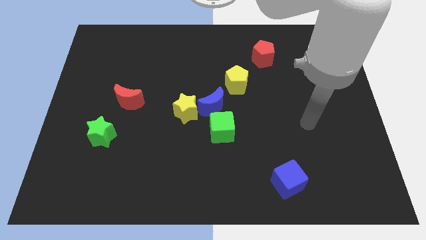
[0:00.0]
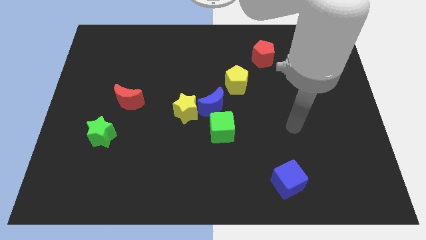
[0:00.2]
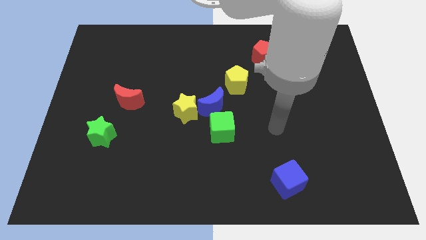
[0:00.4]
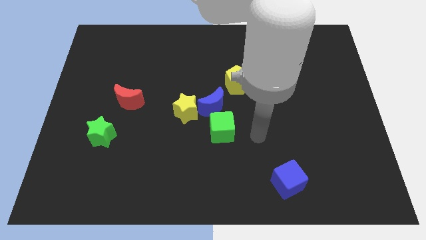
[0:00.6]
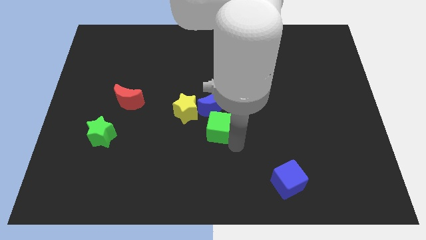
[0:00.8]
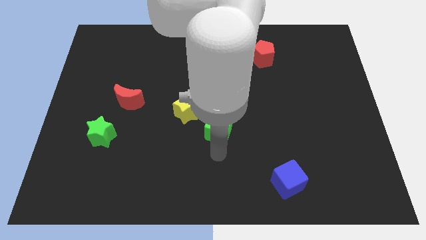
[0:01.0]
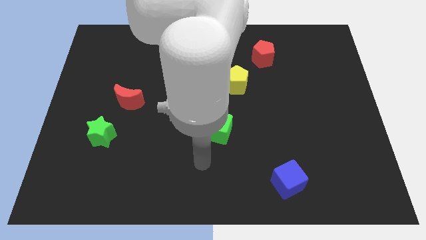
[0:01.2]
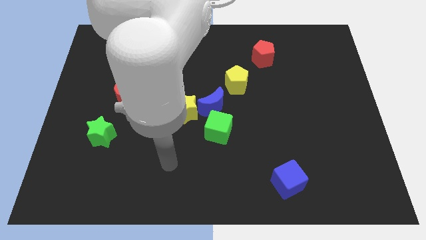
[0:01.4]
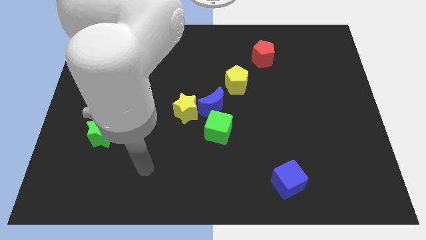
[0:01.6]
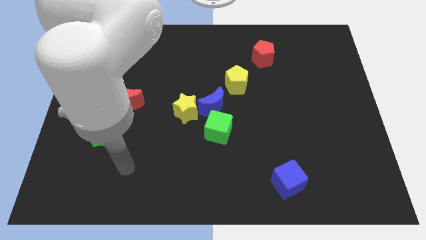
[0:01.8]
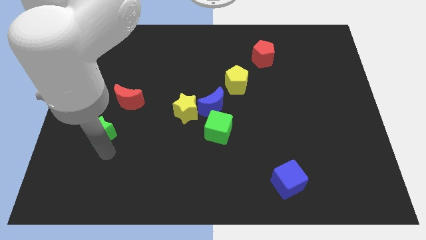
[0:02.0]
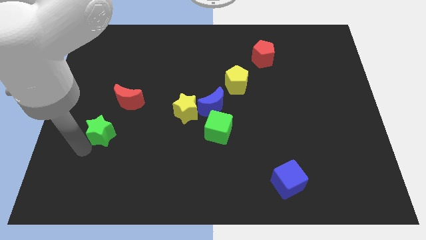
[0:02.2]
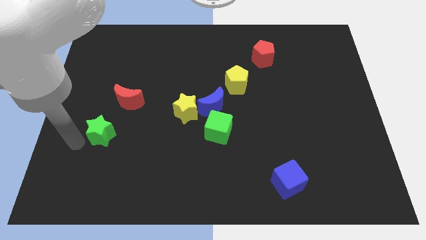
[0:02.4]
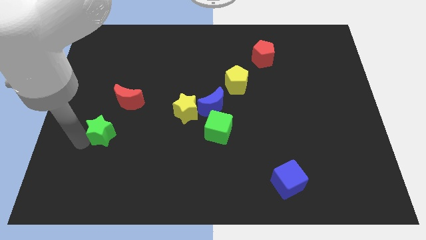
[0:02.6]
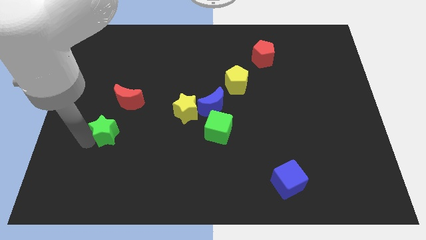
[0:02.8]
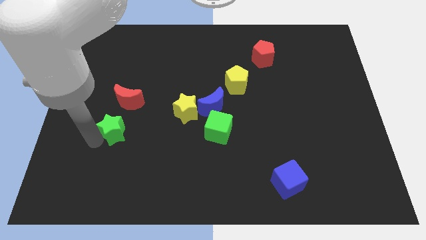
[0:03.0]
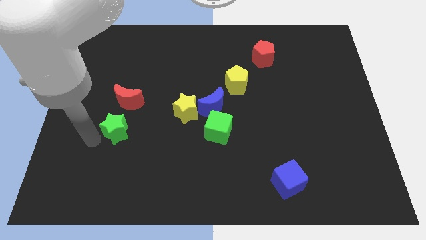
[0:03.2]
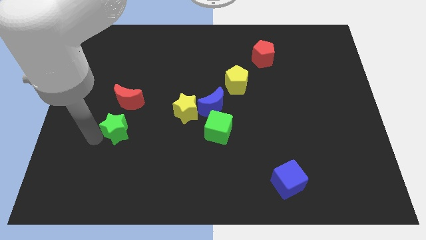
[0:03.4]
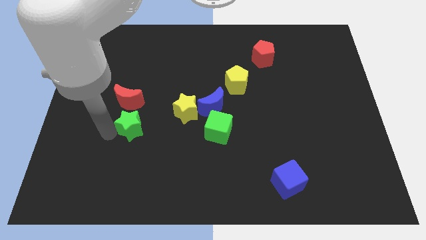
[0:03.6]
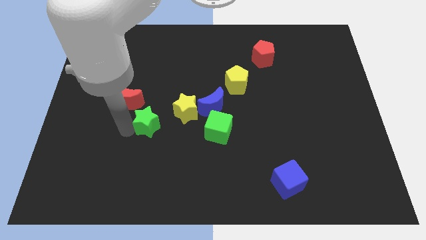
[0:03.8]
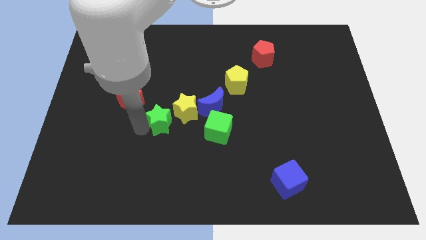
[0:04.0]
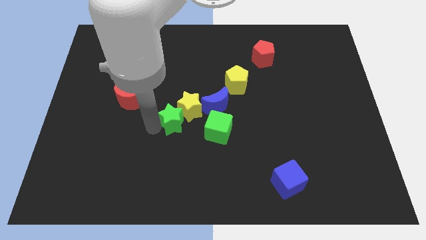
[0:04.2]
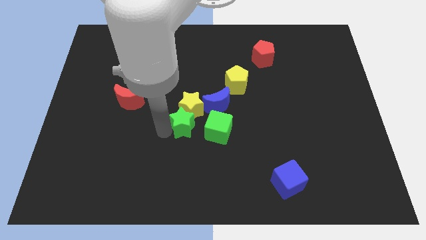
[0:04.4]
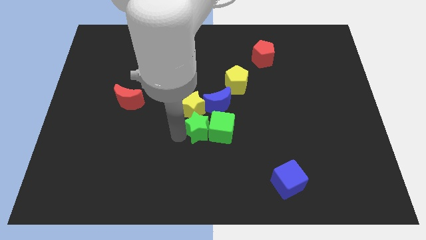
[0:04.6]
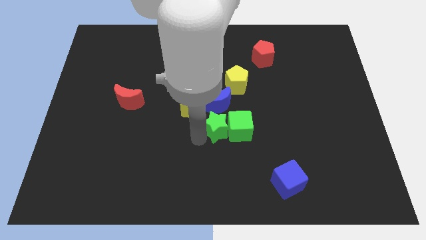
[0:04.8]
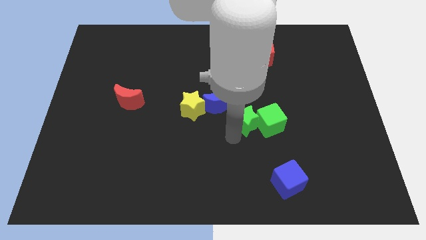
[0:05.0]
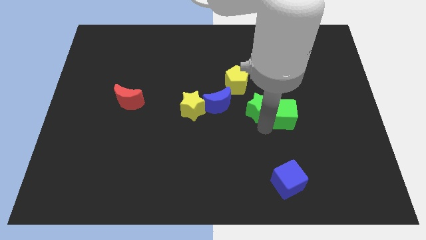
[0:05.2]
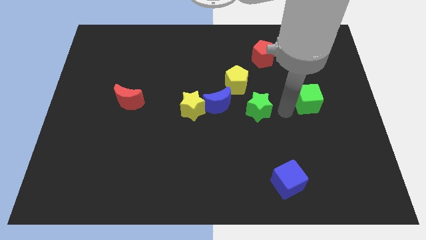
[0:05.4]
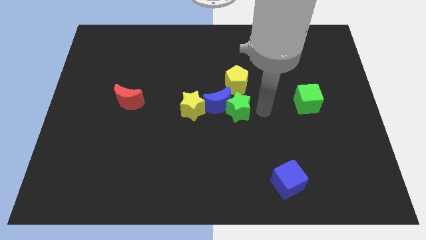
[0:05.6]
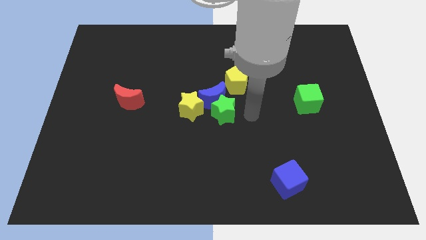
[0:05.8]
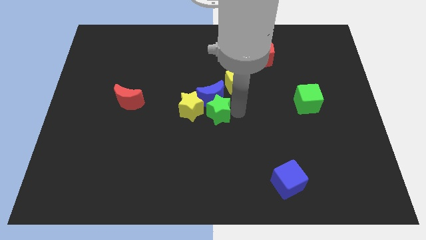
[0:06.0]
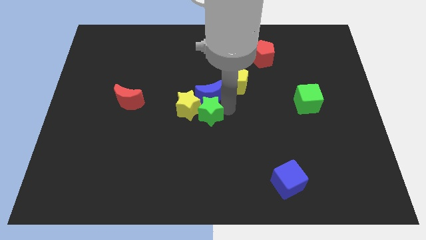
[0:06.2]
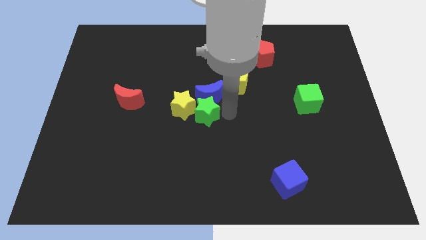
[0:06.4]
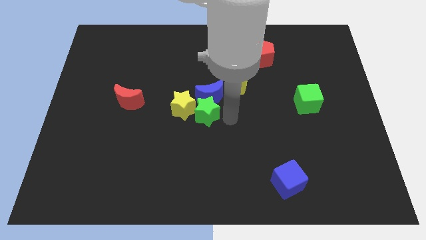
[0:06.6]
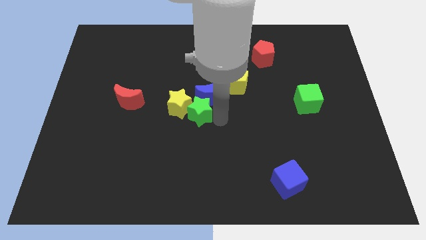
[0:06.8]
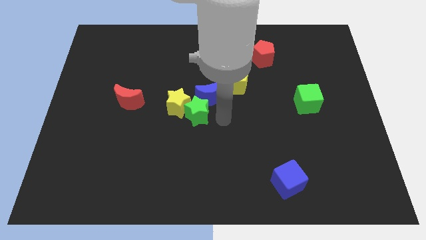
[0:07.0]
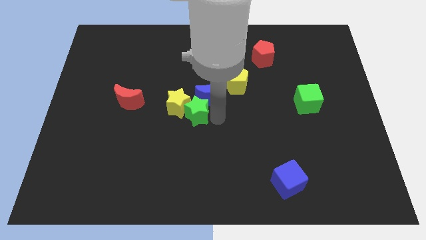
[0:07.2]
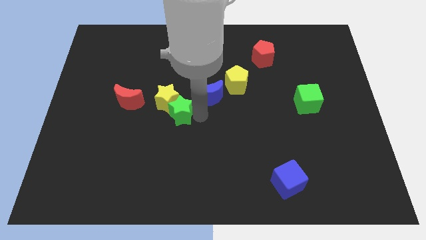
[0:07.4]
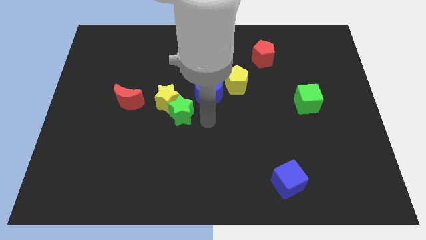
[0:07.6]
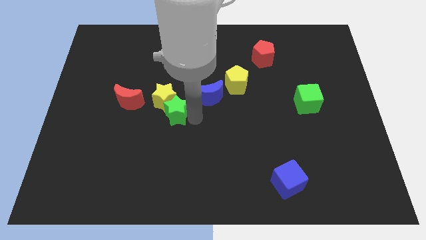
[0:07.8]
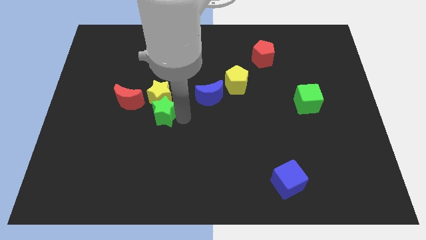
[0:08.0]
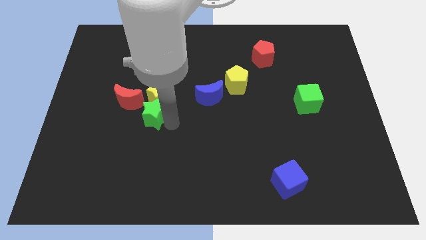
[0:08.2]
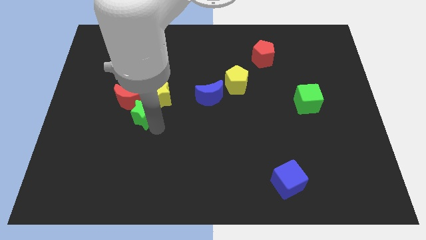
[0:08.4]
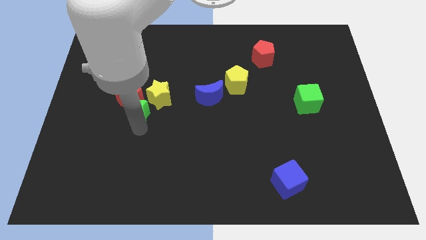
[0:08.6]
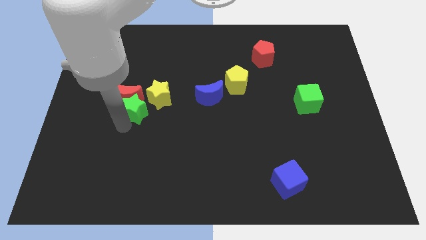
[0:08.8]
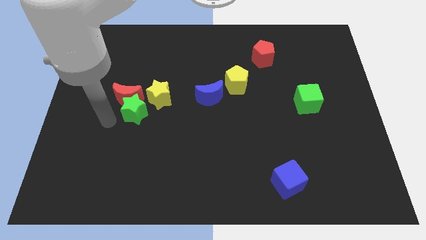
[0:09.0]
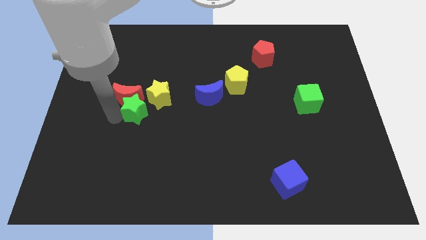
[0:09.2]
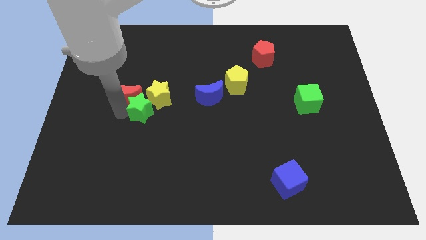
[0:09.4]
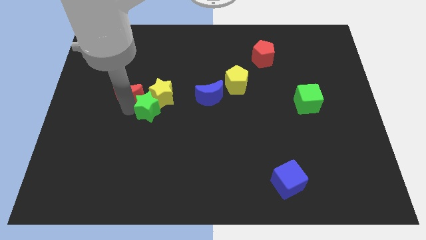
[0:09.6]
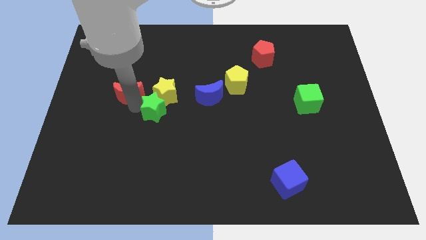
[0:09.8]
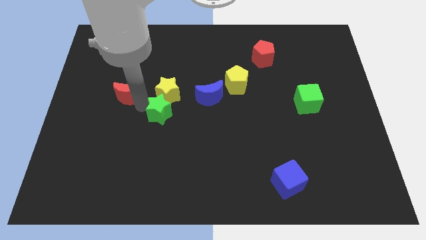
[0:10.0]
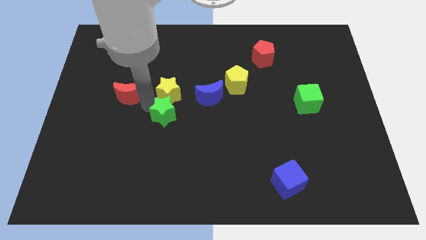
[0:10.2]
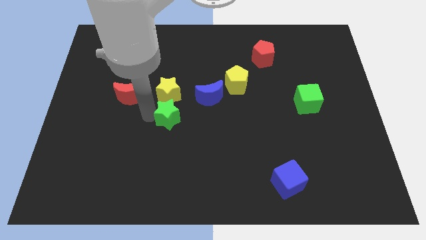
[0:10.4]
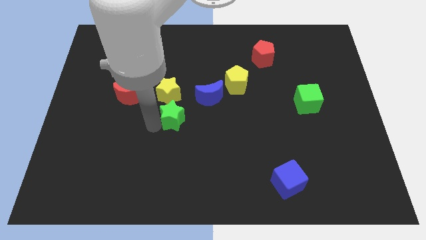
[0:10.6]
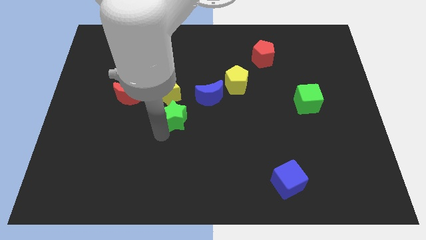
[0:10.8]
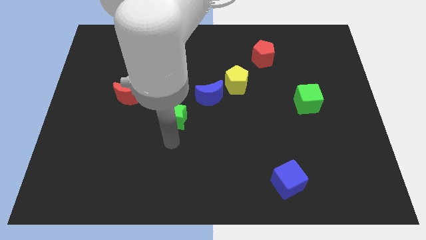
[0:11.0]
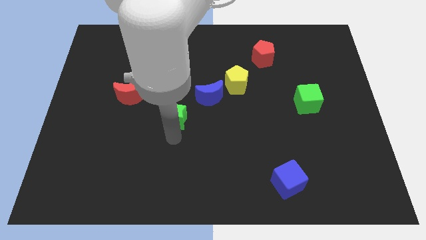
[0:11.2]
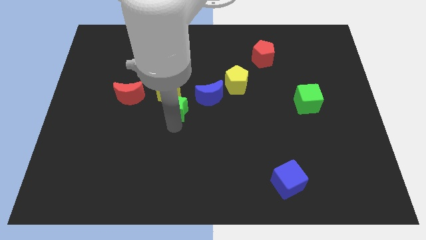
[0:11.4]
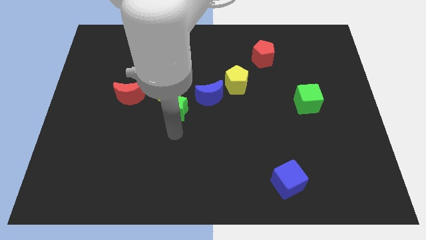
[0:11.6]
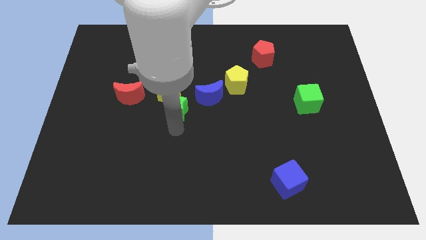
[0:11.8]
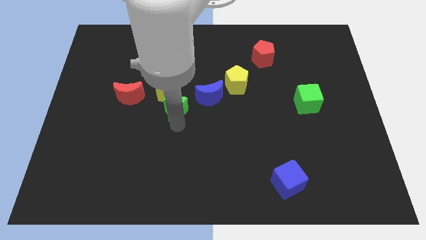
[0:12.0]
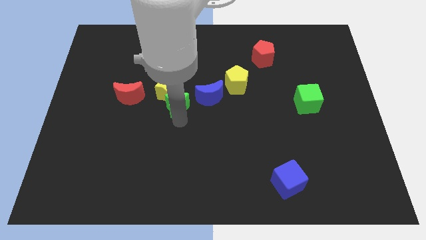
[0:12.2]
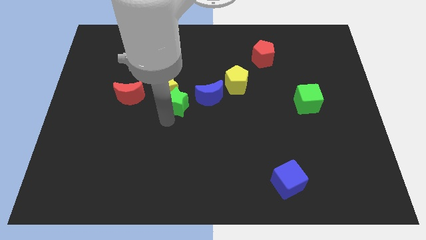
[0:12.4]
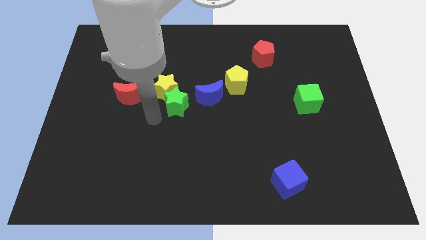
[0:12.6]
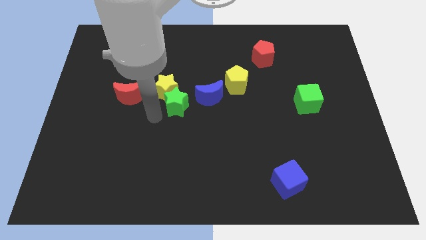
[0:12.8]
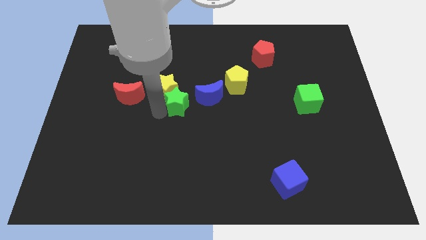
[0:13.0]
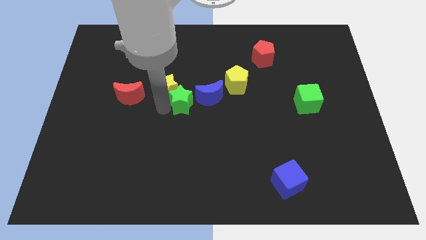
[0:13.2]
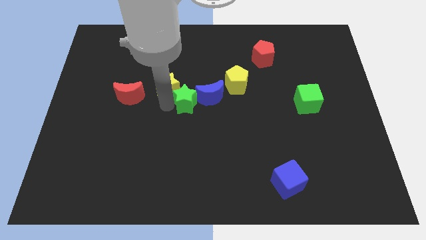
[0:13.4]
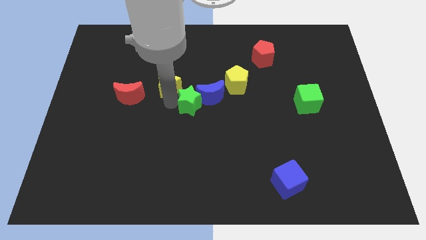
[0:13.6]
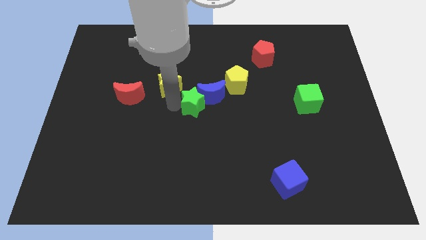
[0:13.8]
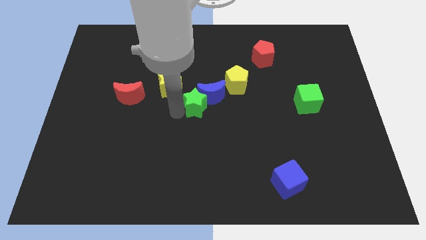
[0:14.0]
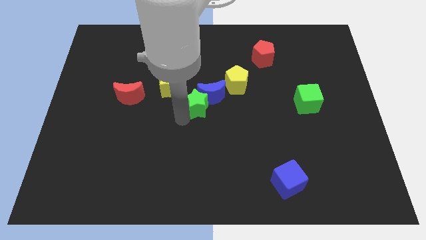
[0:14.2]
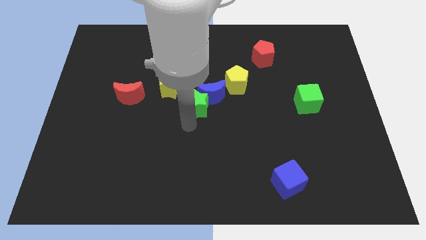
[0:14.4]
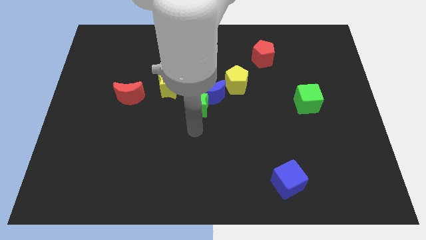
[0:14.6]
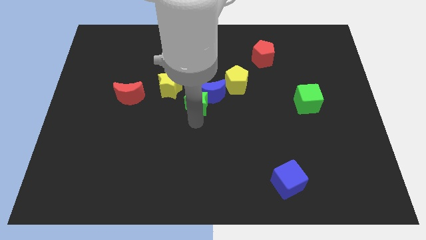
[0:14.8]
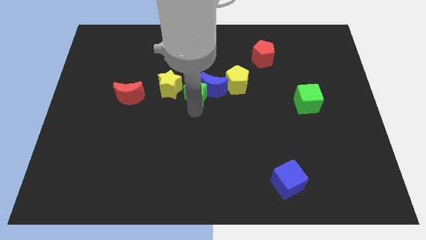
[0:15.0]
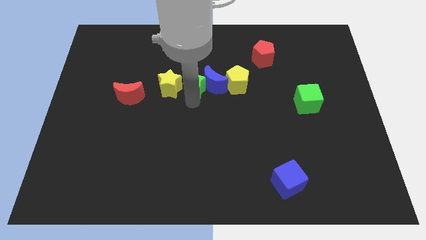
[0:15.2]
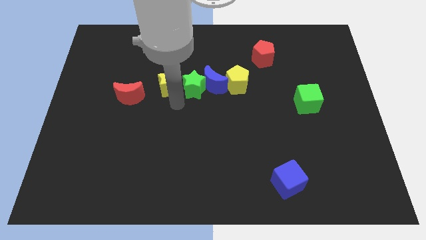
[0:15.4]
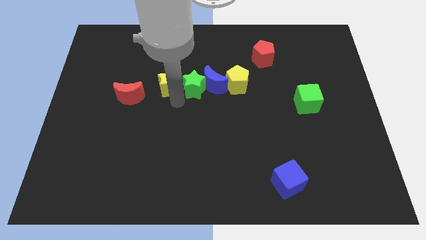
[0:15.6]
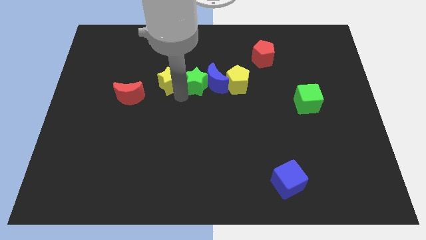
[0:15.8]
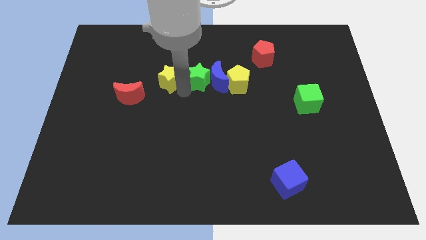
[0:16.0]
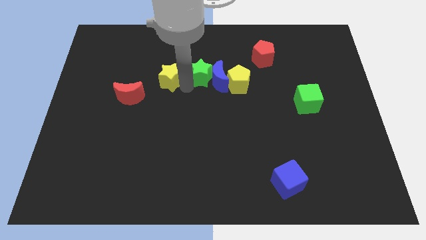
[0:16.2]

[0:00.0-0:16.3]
put the green star to the top left side of the yellow pentagon

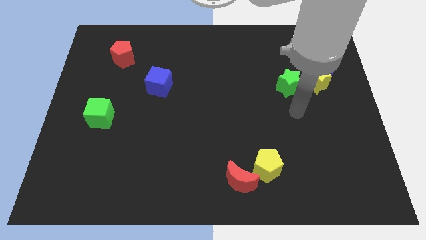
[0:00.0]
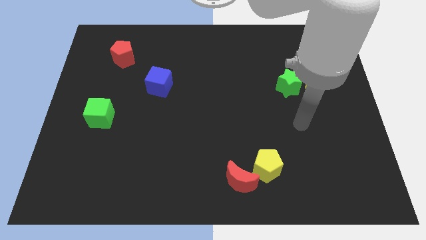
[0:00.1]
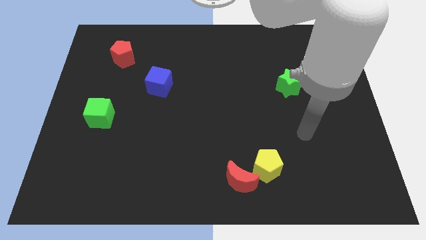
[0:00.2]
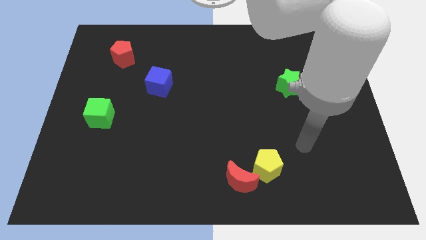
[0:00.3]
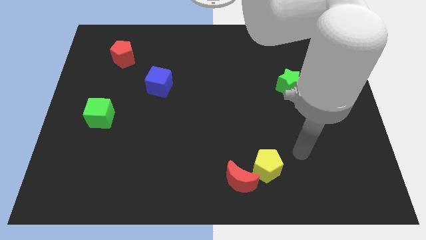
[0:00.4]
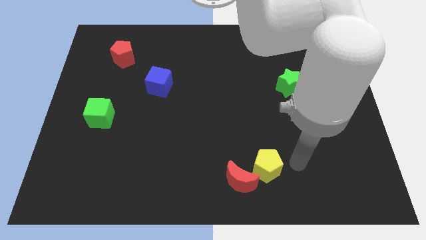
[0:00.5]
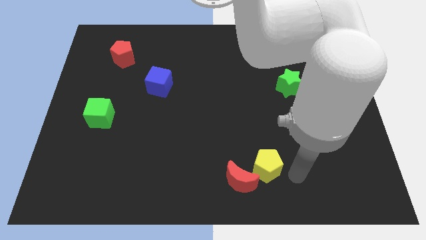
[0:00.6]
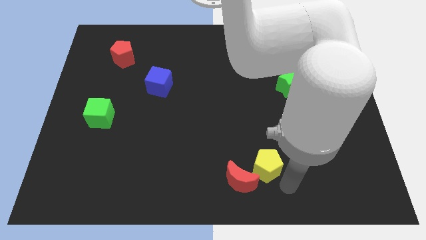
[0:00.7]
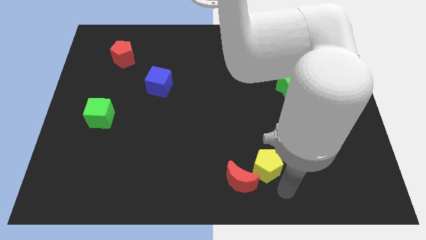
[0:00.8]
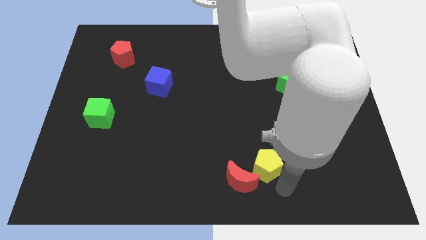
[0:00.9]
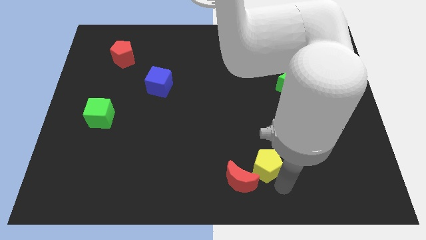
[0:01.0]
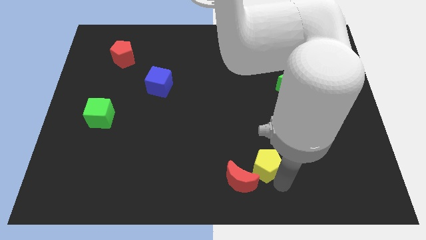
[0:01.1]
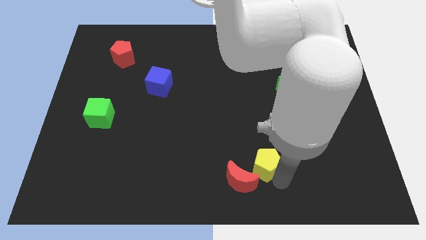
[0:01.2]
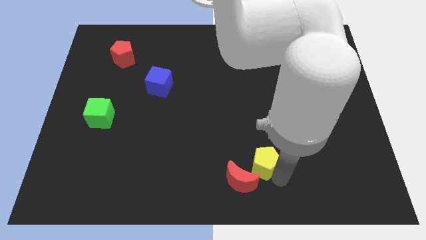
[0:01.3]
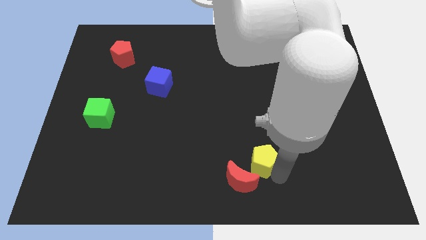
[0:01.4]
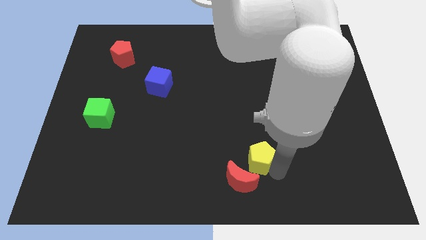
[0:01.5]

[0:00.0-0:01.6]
slide the yellow pentagon to the top side of the red moon
